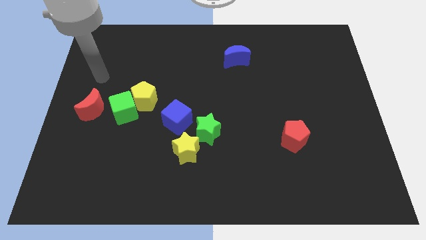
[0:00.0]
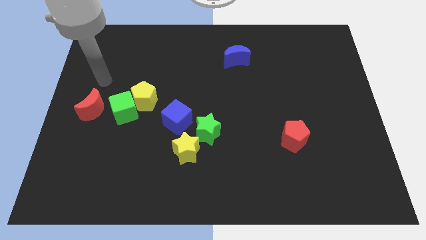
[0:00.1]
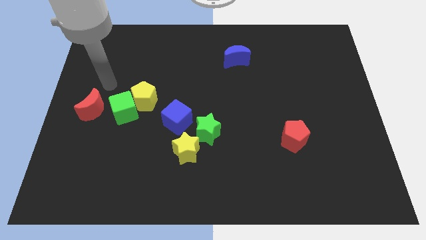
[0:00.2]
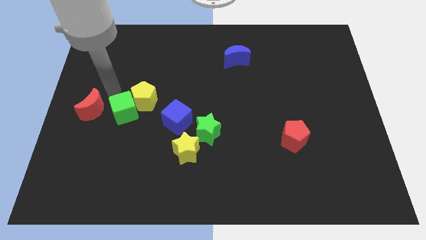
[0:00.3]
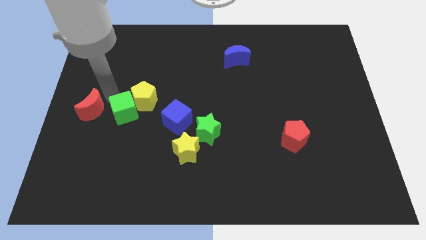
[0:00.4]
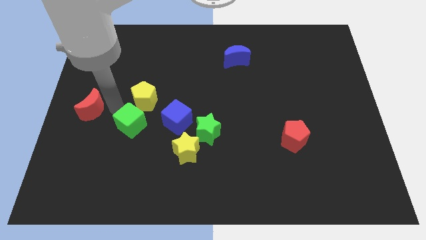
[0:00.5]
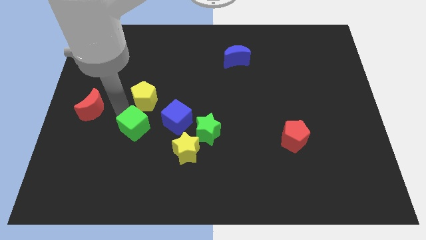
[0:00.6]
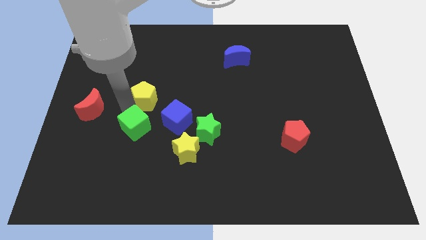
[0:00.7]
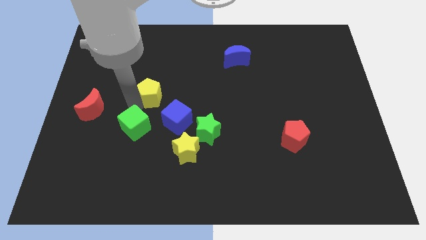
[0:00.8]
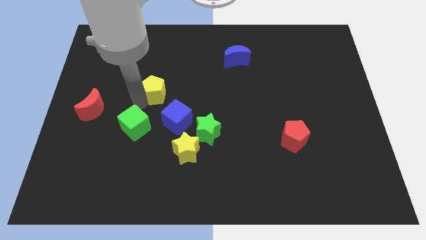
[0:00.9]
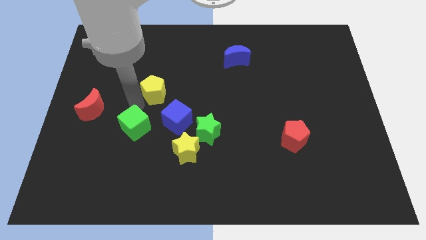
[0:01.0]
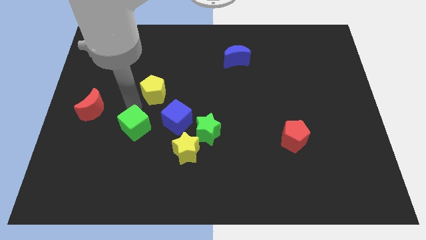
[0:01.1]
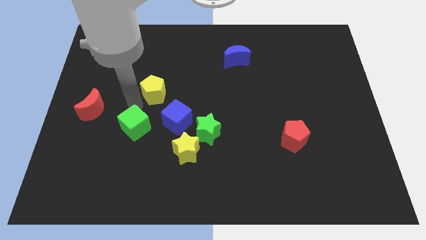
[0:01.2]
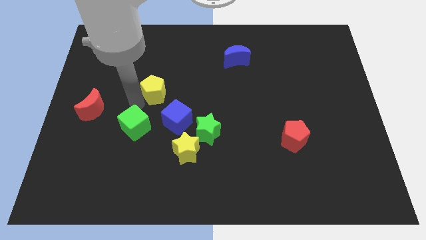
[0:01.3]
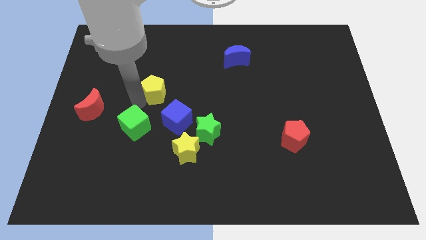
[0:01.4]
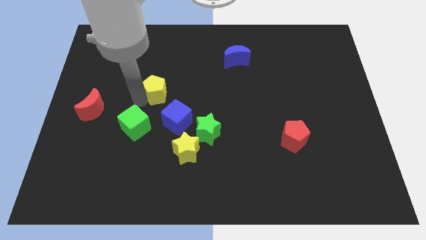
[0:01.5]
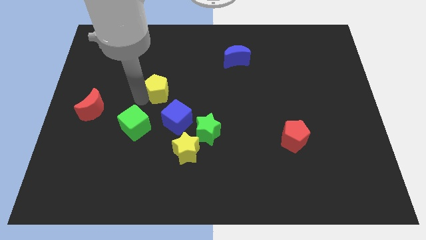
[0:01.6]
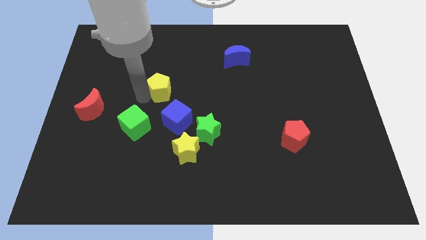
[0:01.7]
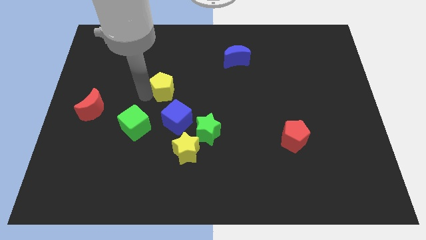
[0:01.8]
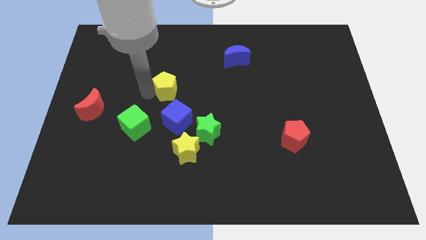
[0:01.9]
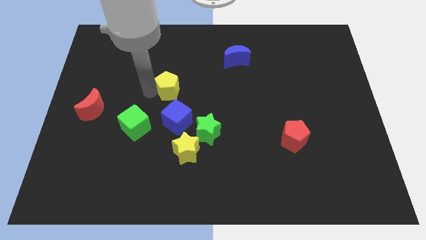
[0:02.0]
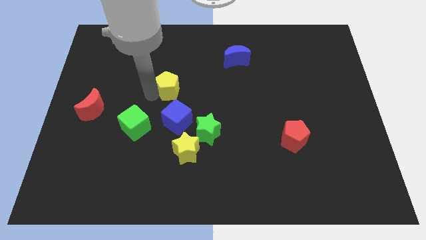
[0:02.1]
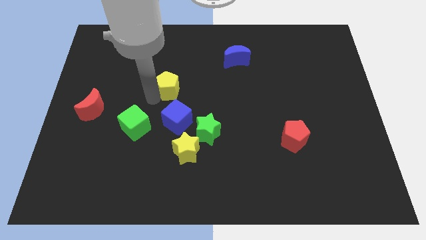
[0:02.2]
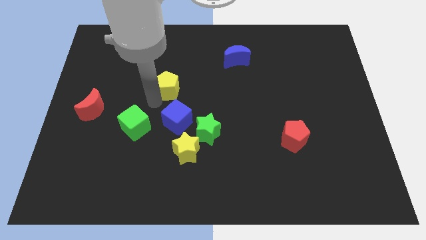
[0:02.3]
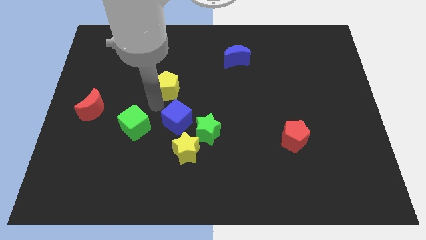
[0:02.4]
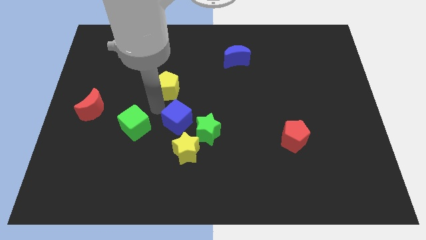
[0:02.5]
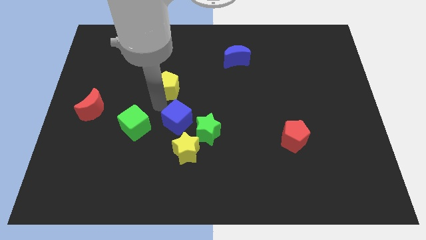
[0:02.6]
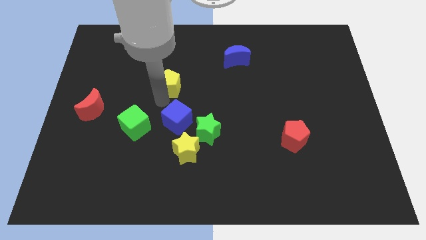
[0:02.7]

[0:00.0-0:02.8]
slide the yellow pentagon diagonally upwards and right a bit

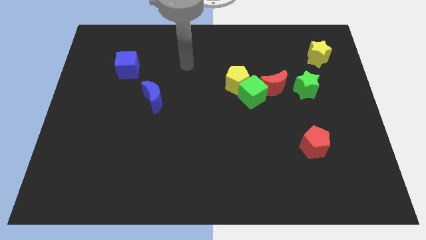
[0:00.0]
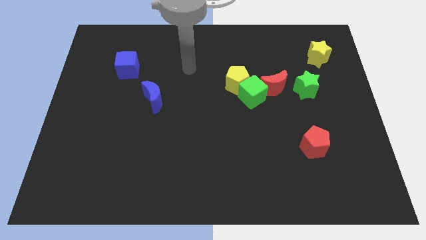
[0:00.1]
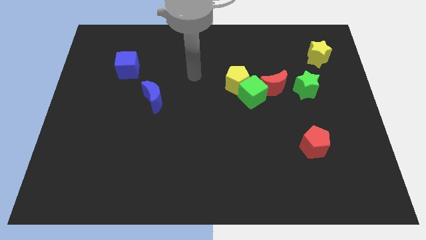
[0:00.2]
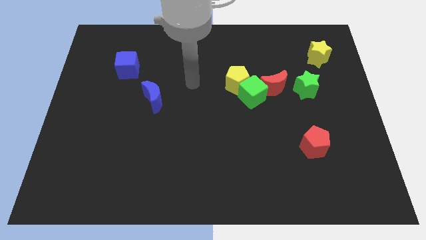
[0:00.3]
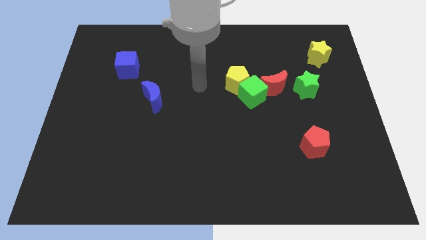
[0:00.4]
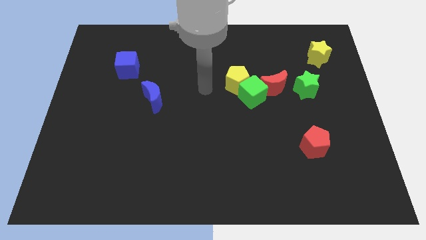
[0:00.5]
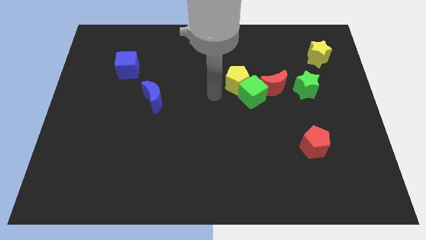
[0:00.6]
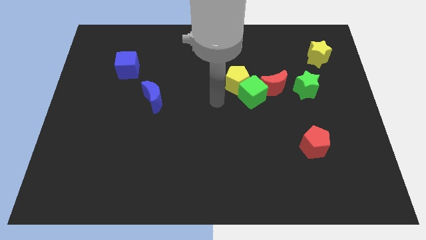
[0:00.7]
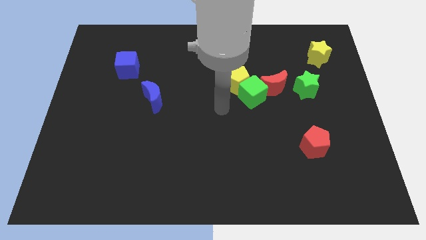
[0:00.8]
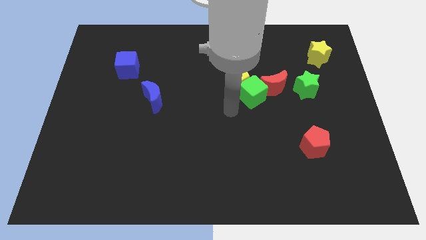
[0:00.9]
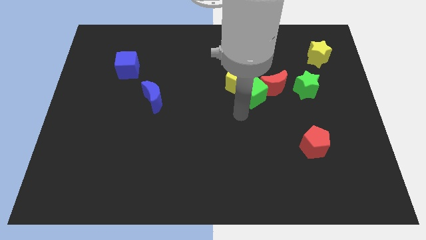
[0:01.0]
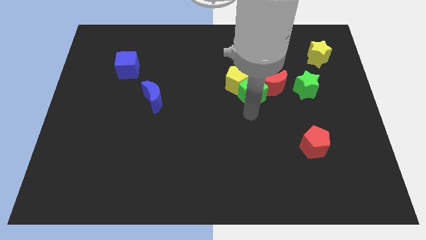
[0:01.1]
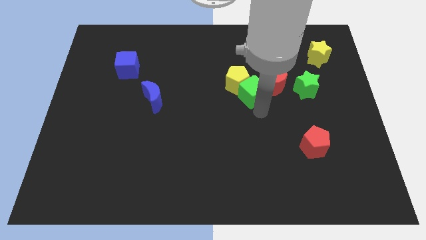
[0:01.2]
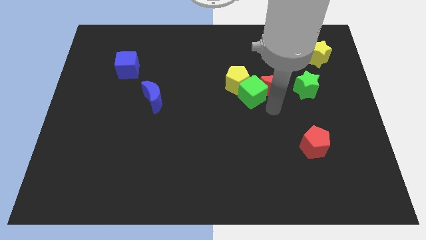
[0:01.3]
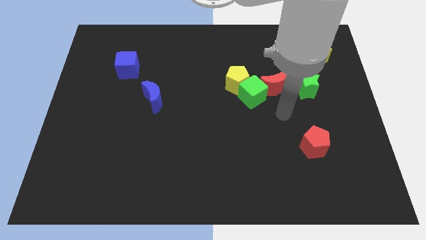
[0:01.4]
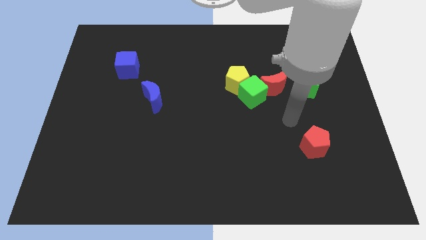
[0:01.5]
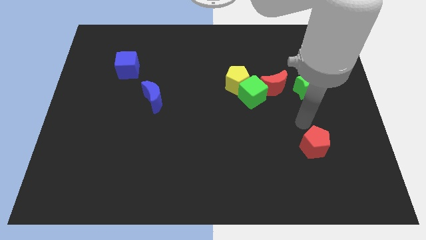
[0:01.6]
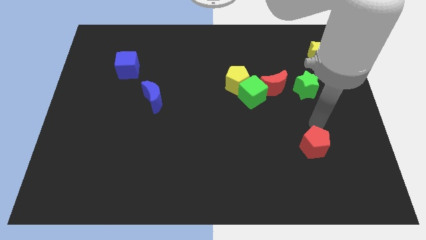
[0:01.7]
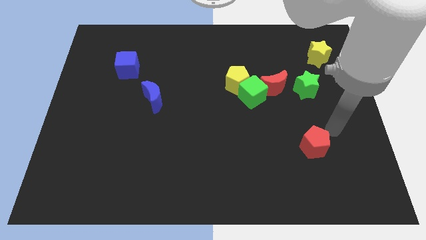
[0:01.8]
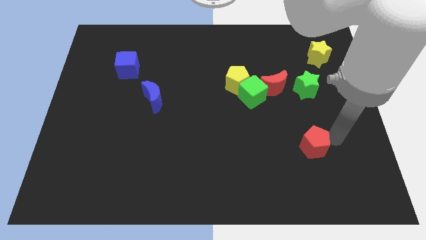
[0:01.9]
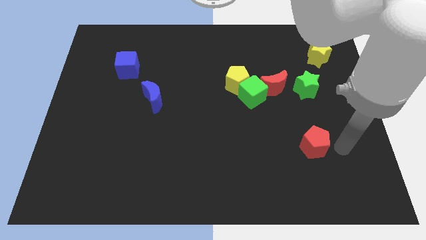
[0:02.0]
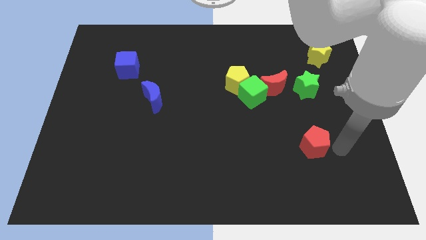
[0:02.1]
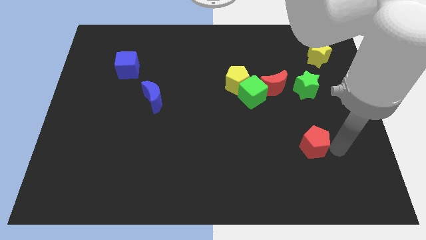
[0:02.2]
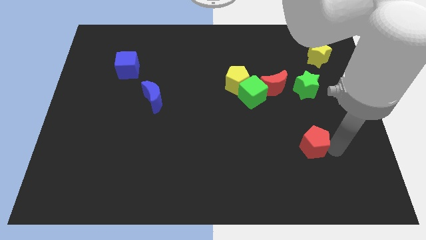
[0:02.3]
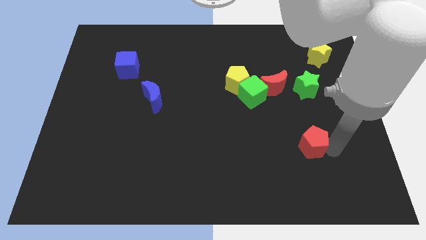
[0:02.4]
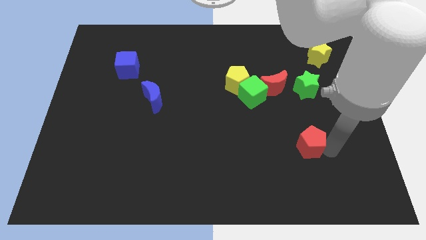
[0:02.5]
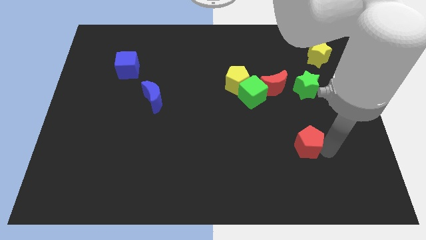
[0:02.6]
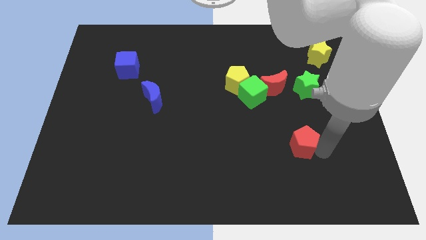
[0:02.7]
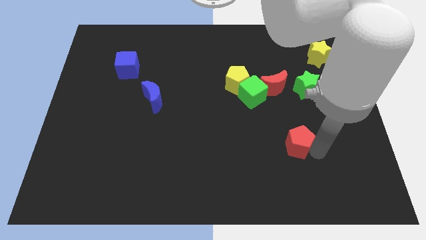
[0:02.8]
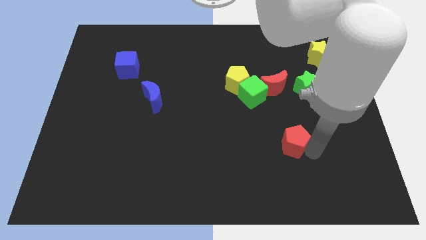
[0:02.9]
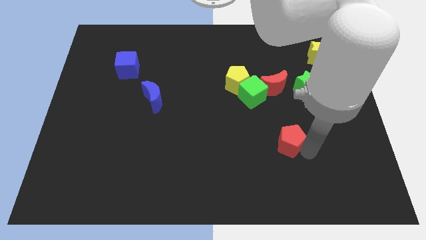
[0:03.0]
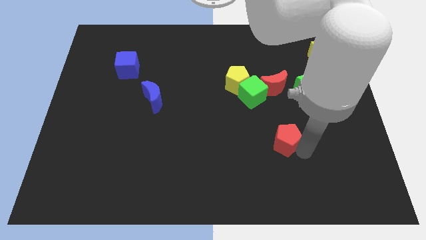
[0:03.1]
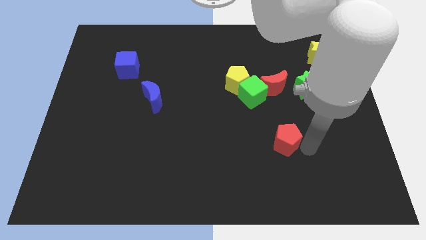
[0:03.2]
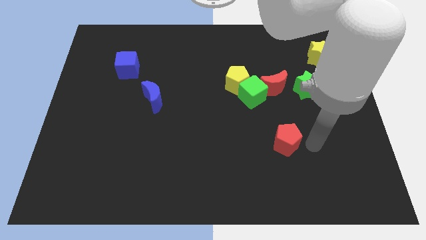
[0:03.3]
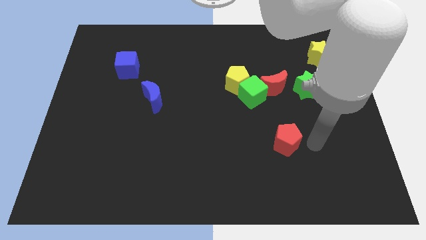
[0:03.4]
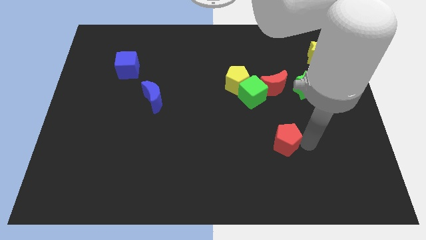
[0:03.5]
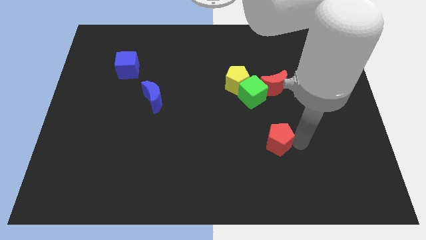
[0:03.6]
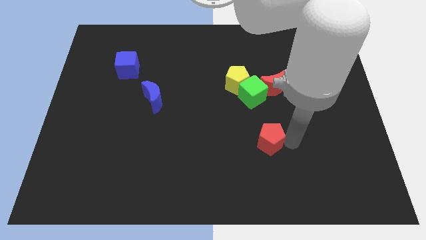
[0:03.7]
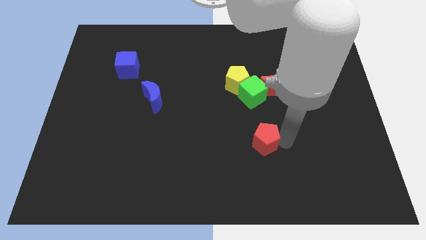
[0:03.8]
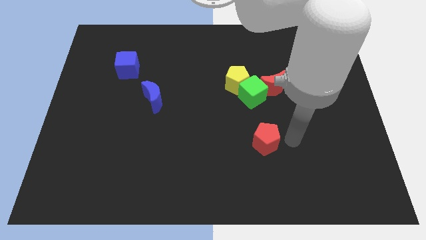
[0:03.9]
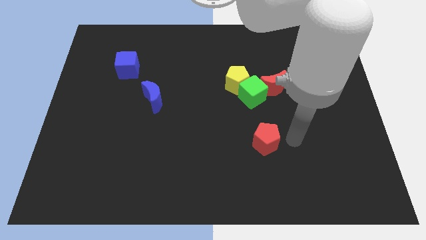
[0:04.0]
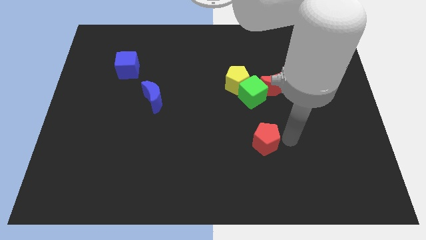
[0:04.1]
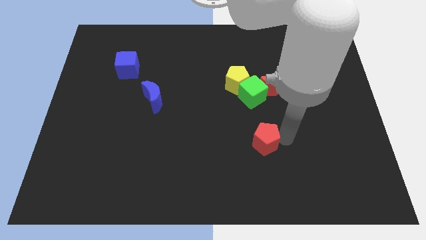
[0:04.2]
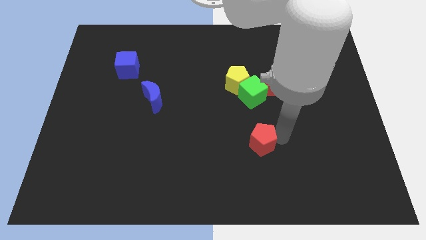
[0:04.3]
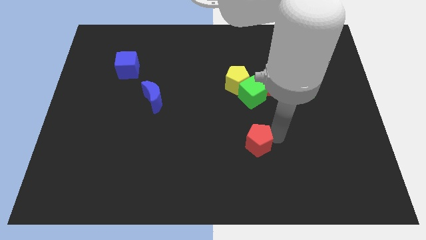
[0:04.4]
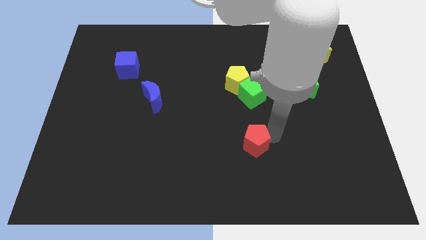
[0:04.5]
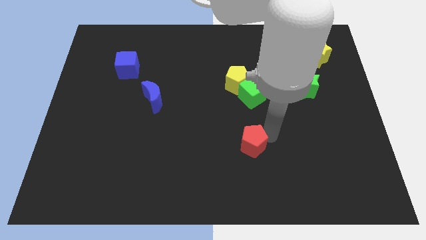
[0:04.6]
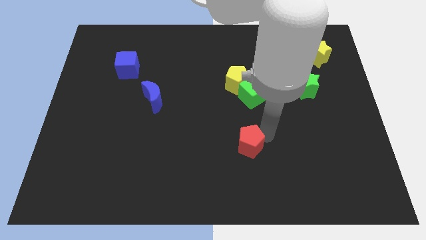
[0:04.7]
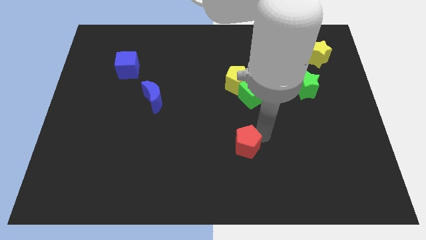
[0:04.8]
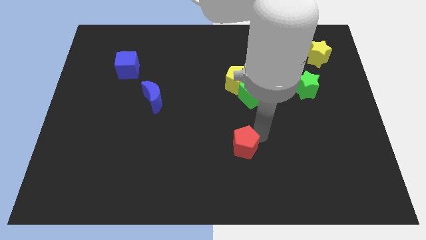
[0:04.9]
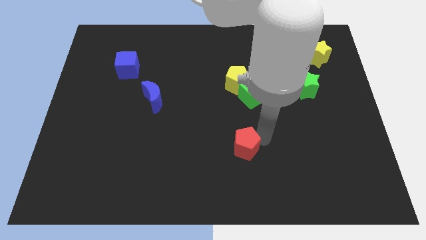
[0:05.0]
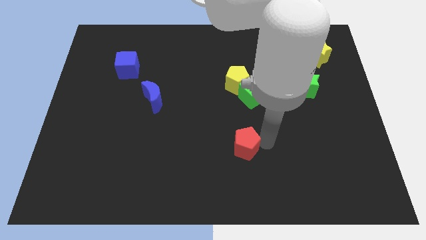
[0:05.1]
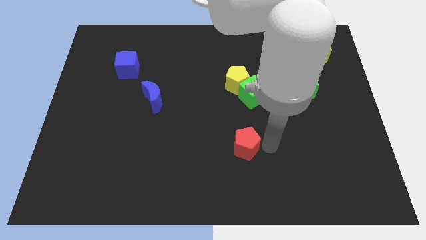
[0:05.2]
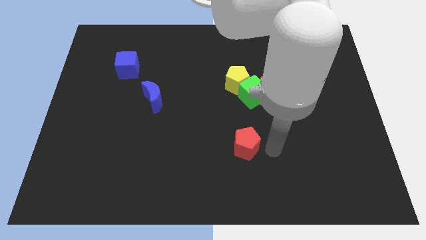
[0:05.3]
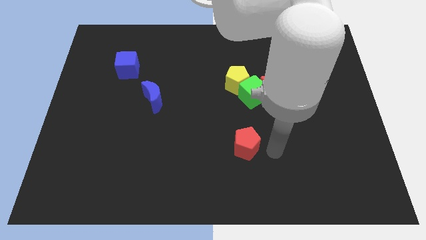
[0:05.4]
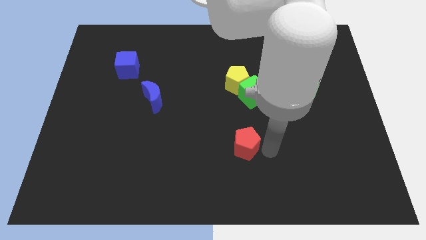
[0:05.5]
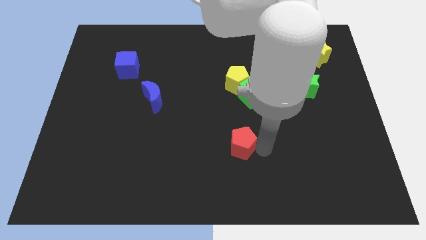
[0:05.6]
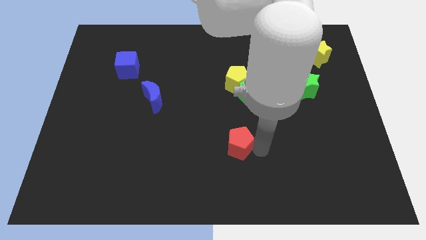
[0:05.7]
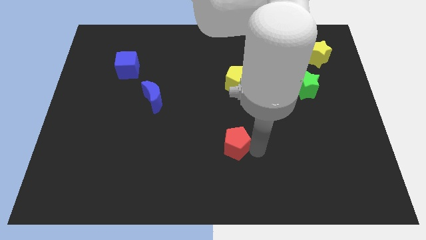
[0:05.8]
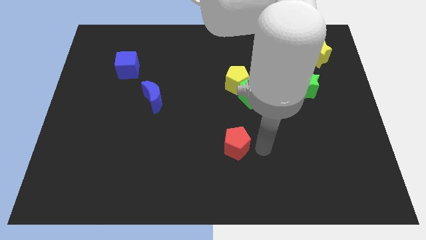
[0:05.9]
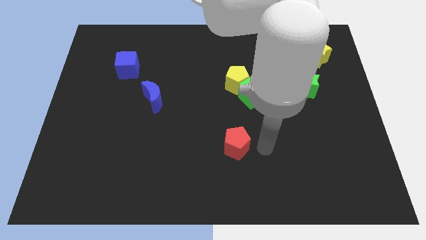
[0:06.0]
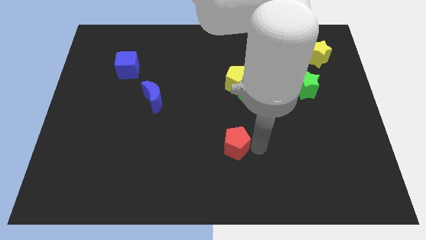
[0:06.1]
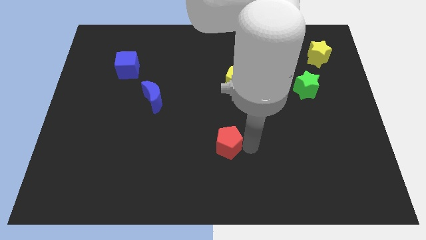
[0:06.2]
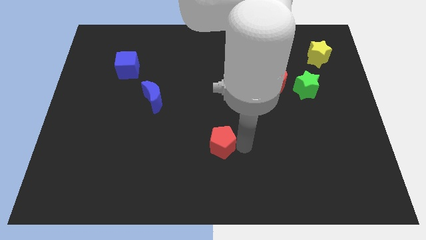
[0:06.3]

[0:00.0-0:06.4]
move the red pentagon left
